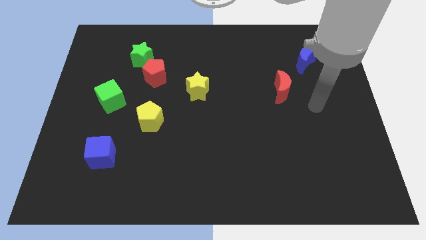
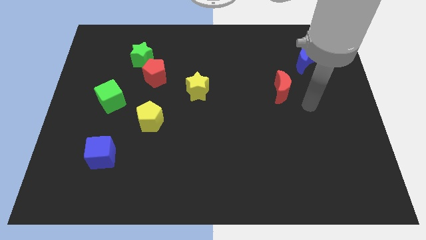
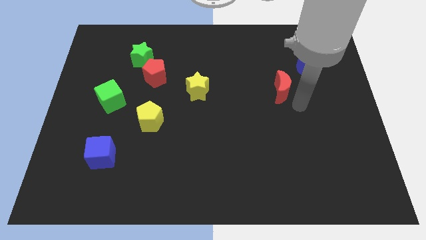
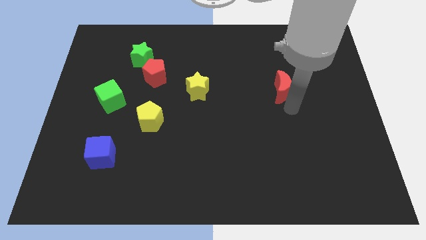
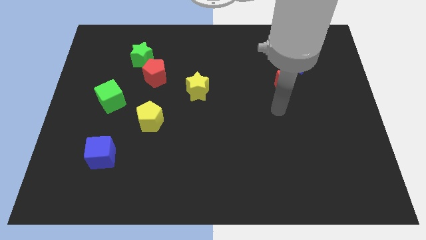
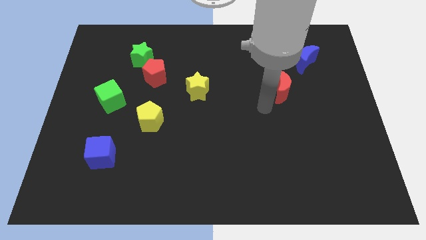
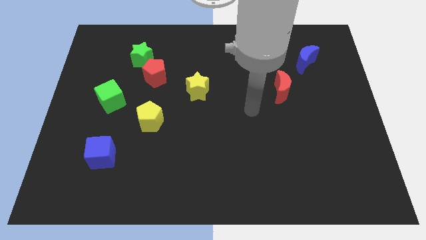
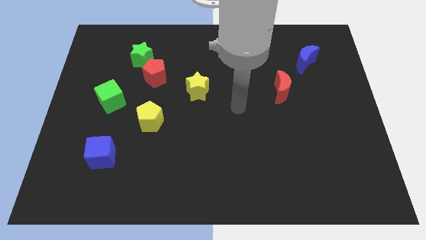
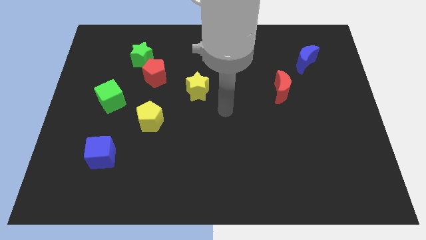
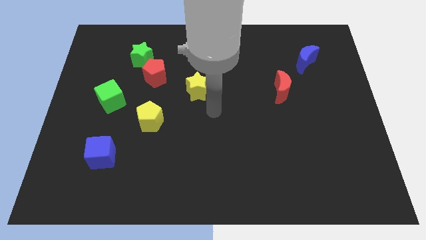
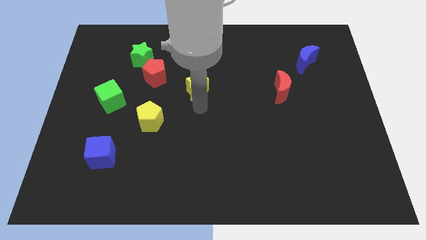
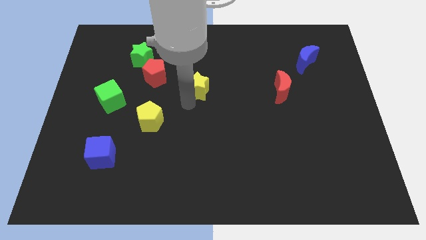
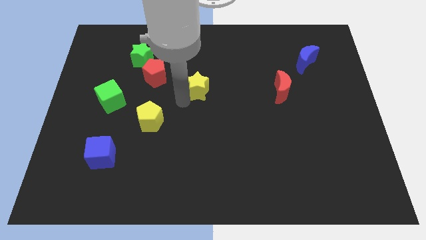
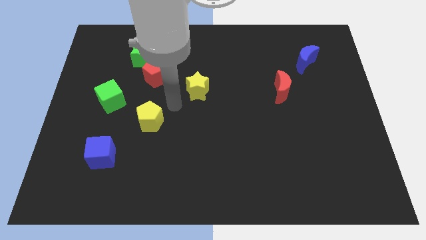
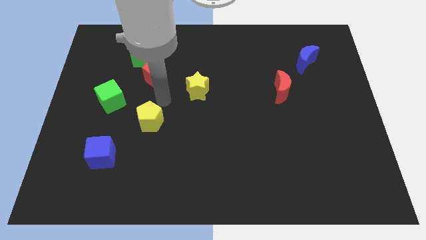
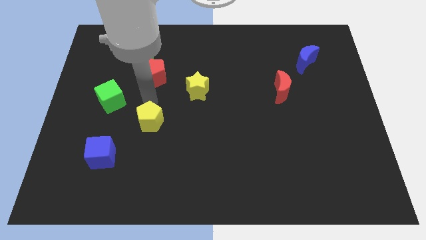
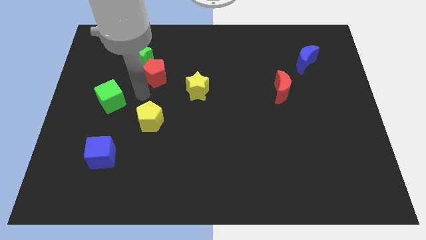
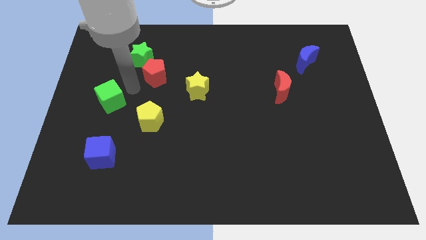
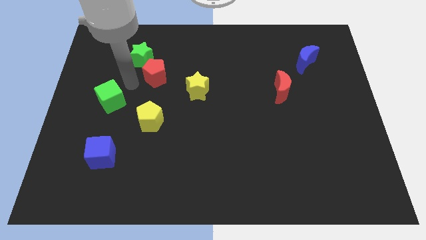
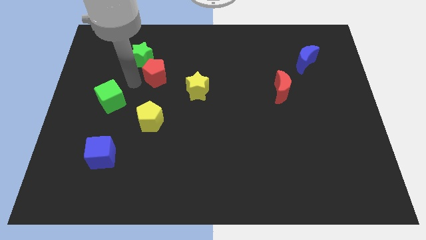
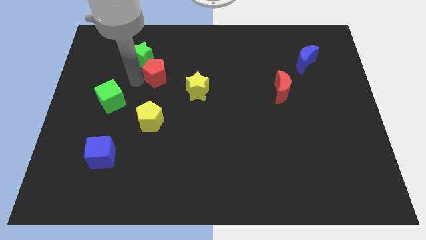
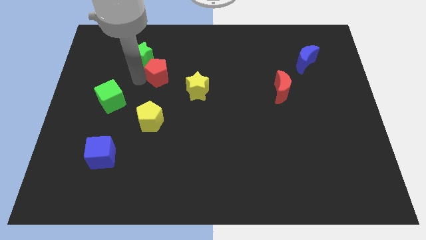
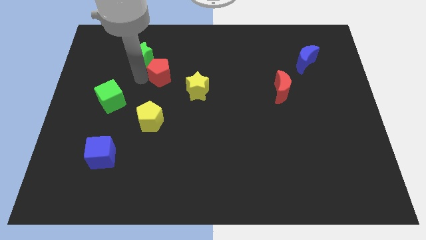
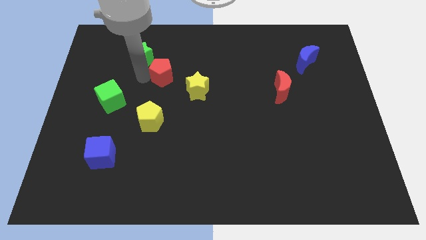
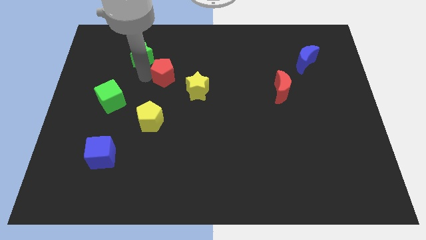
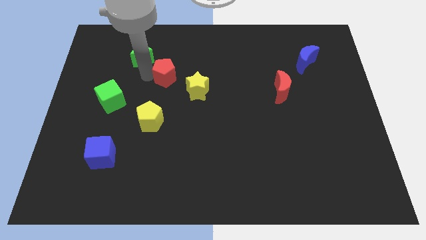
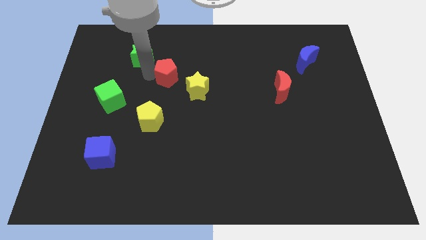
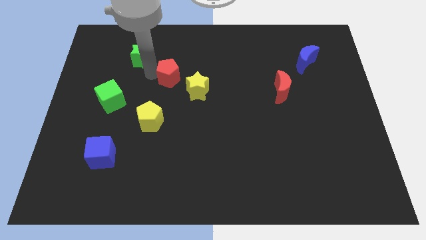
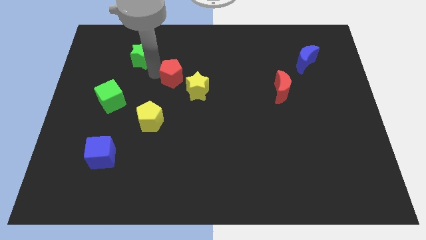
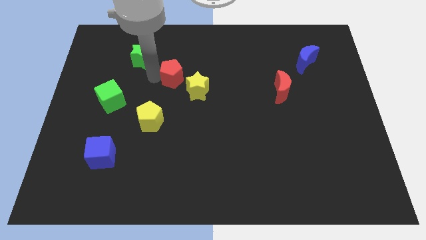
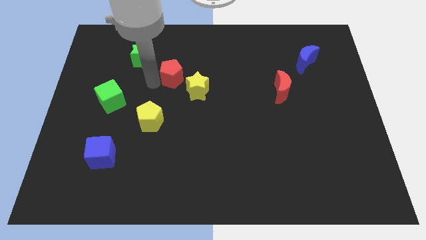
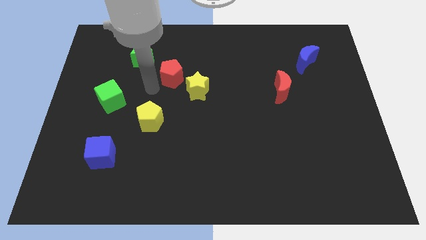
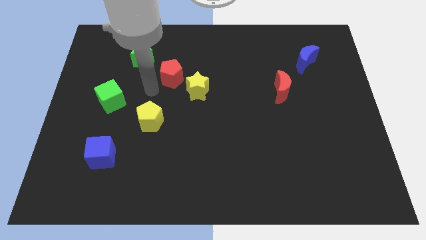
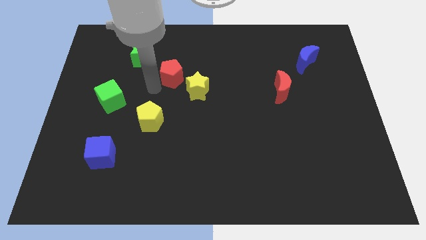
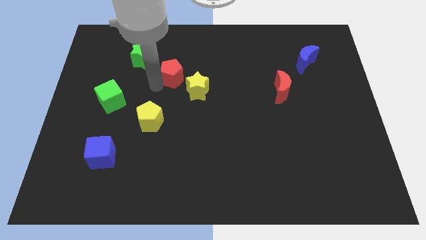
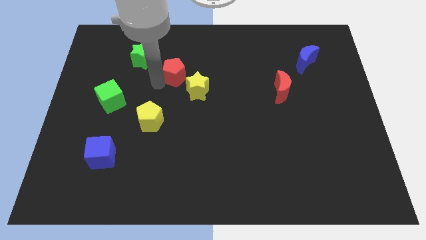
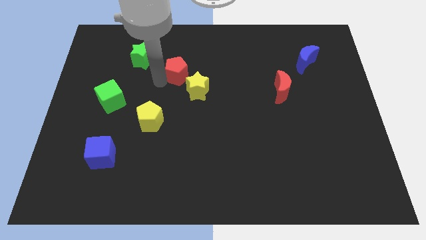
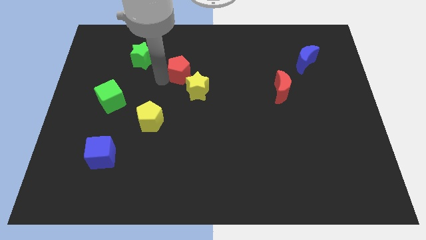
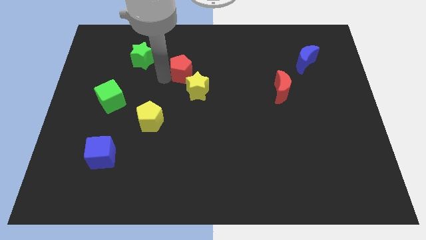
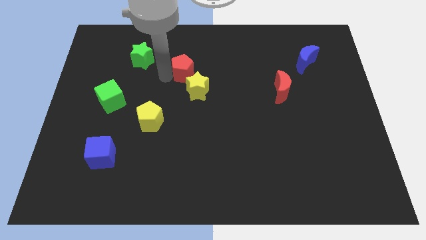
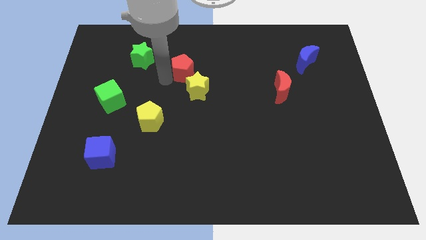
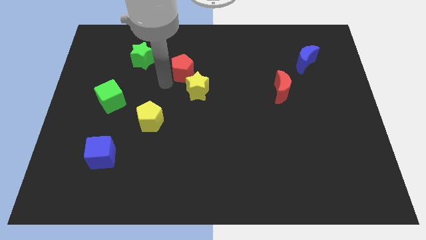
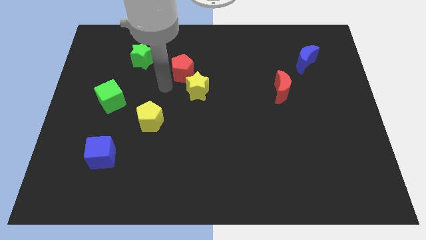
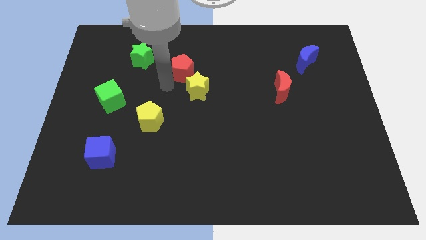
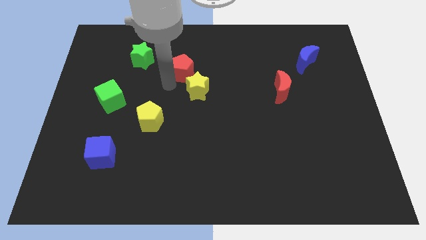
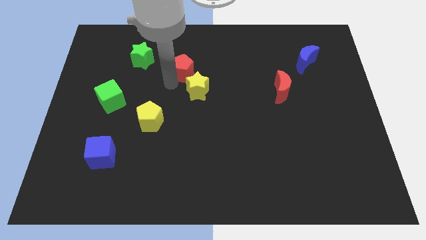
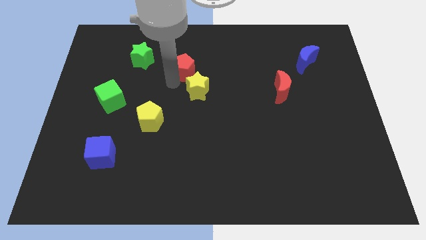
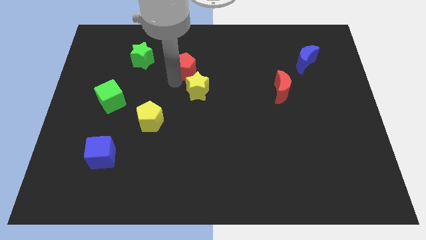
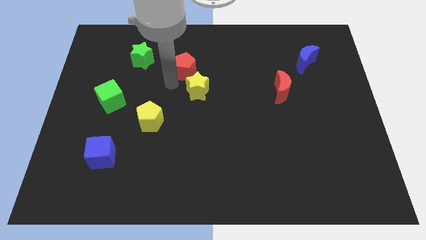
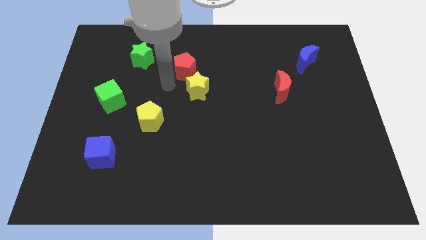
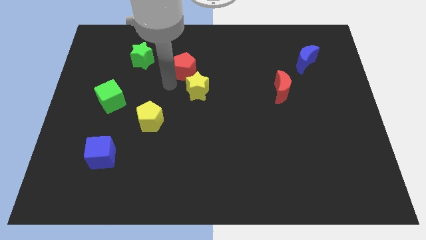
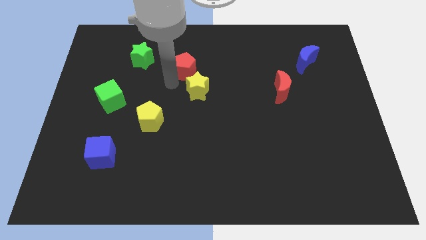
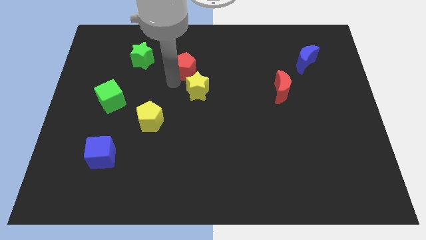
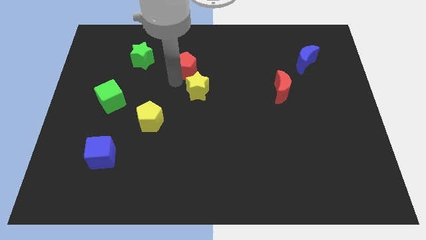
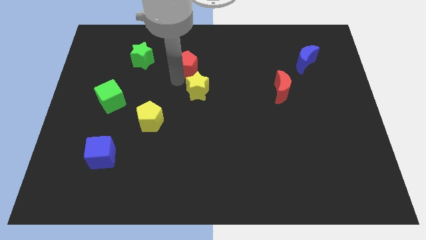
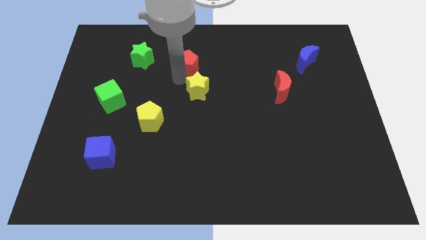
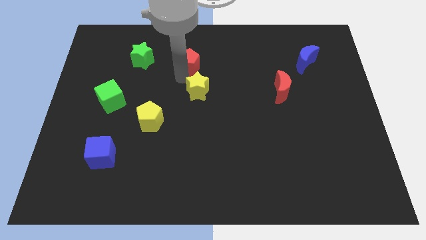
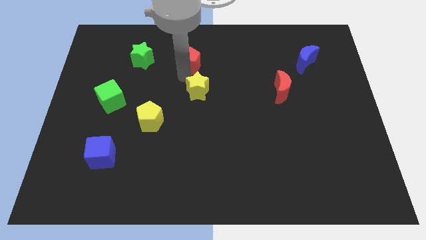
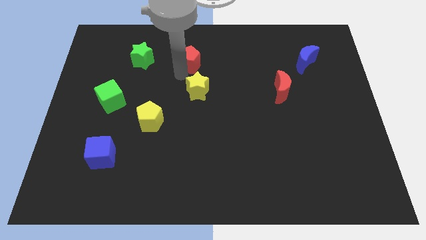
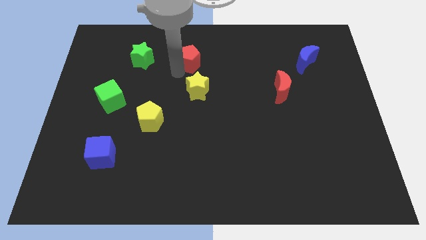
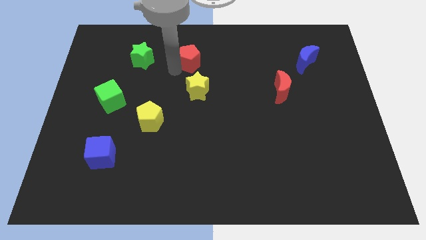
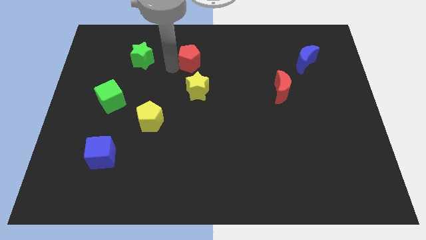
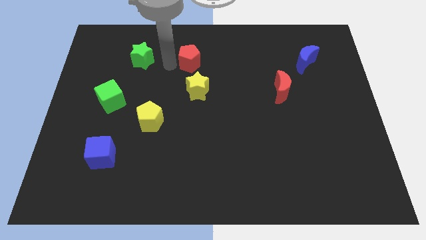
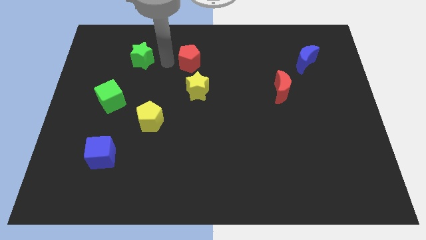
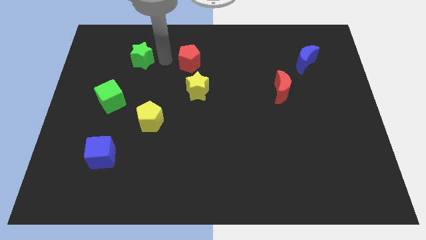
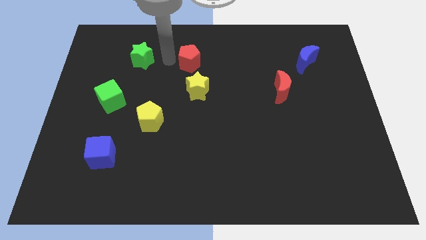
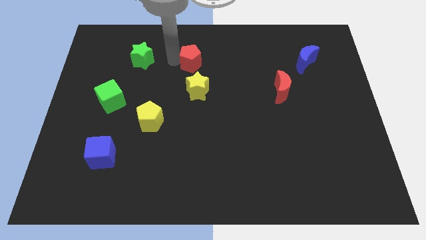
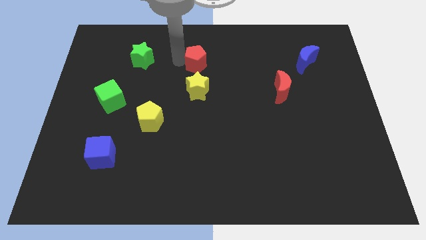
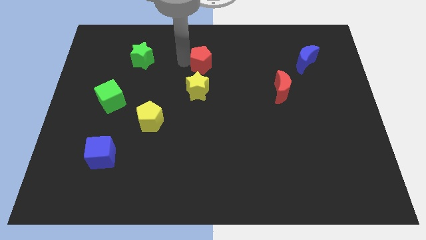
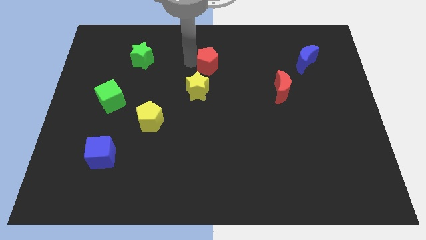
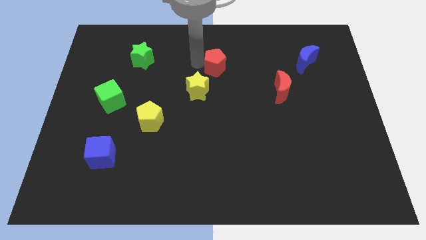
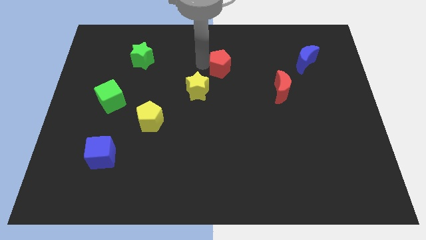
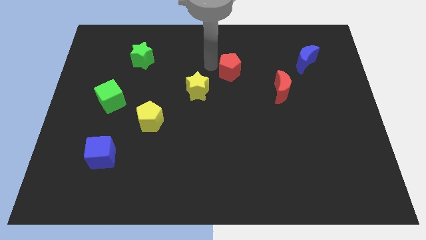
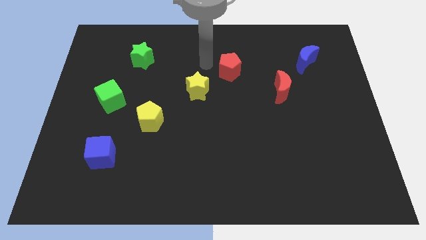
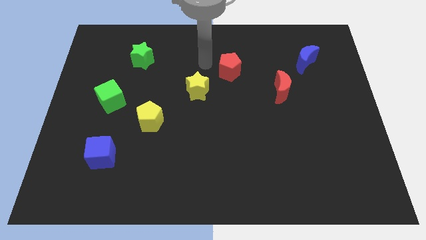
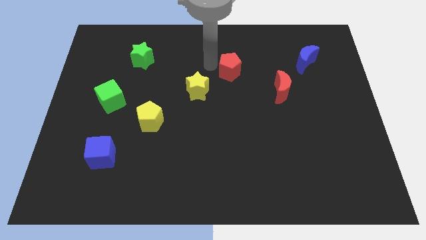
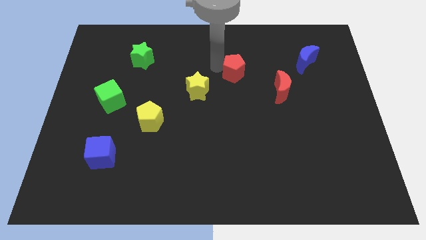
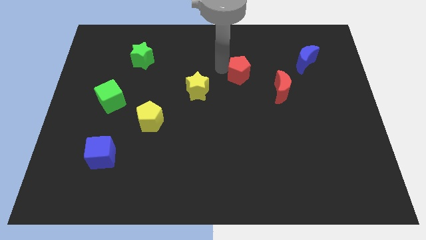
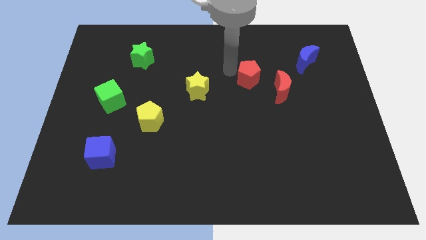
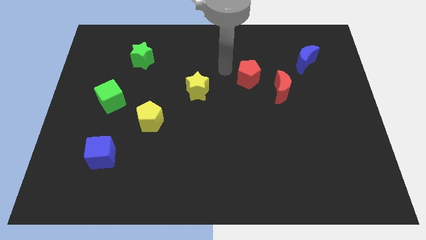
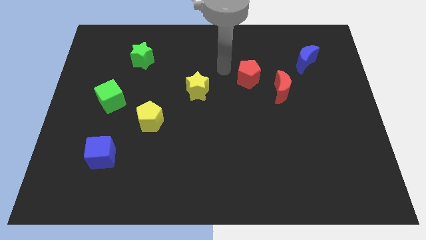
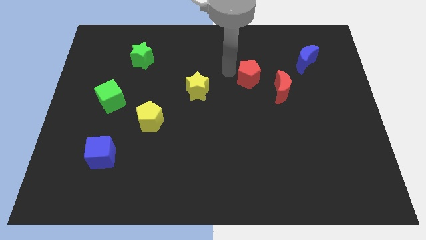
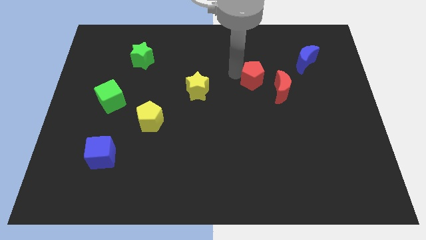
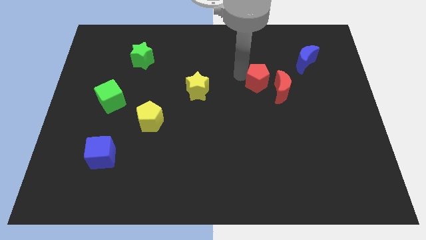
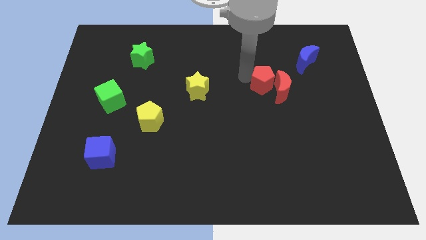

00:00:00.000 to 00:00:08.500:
push the red pentagon to the red moon
